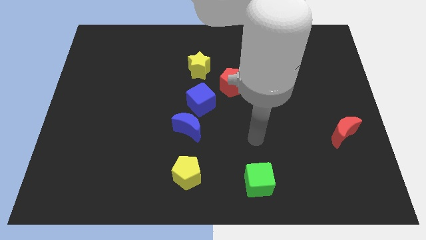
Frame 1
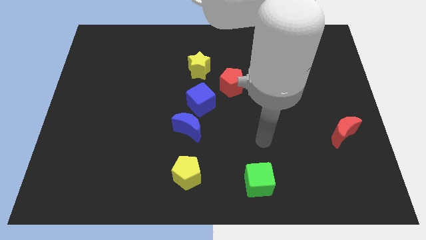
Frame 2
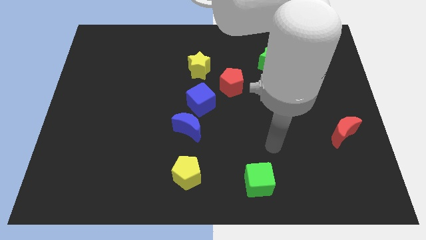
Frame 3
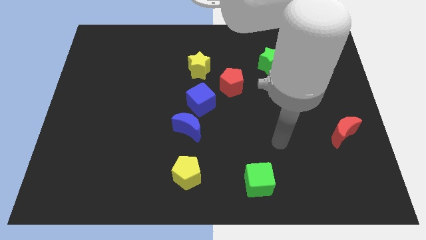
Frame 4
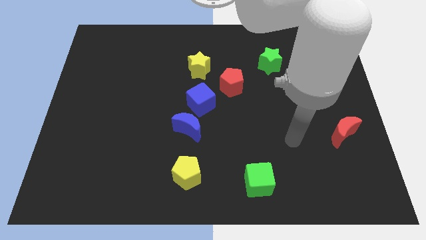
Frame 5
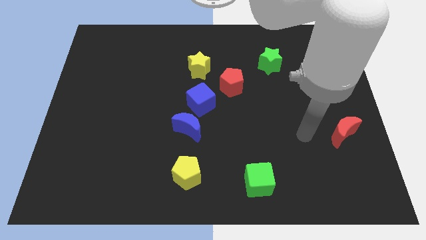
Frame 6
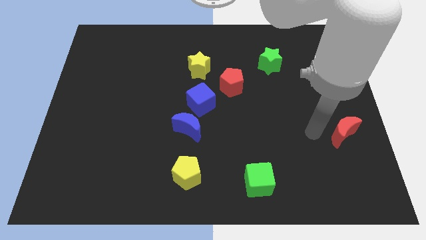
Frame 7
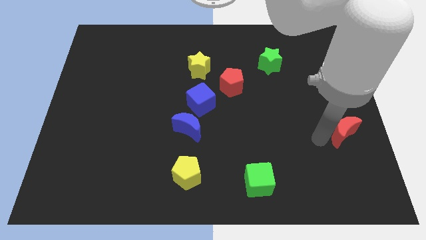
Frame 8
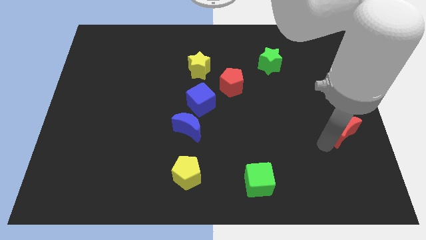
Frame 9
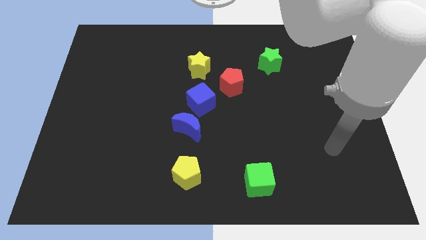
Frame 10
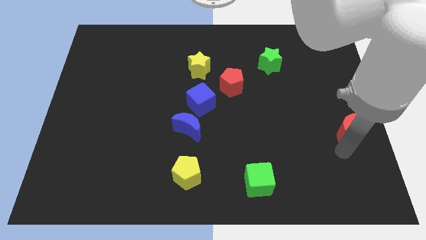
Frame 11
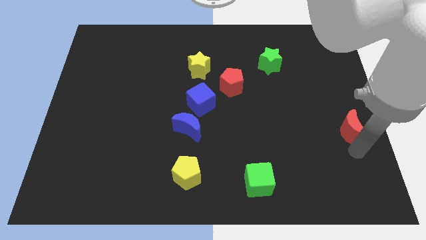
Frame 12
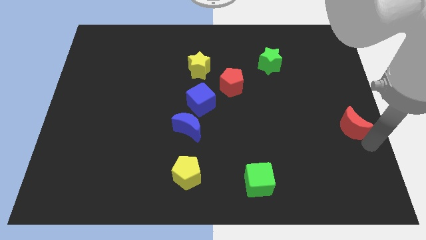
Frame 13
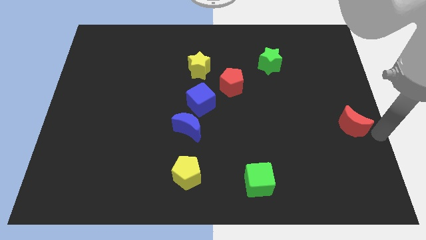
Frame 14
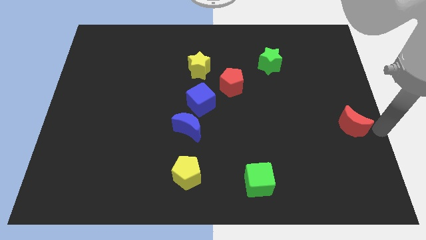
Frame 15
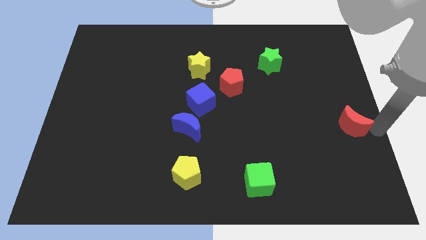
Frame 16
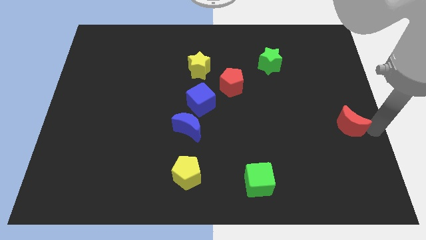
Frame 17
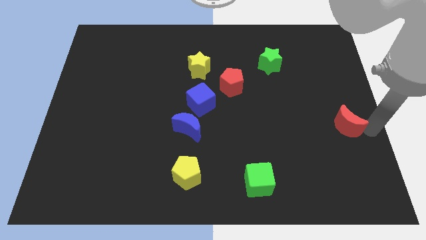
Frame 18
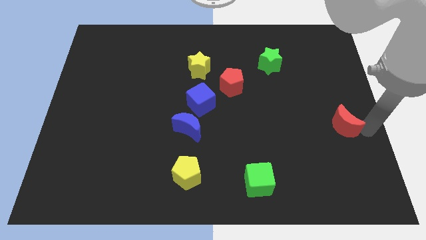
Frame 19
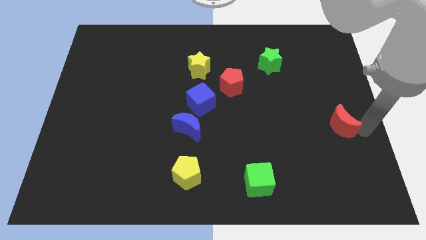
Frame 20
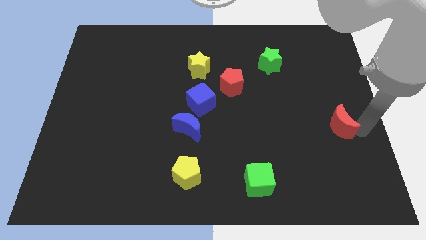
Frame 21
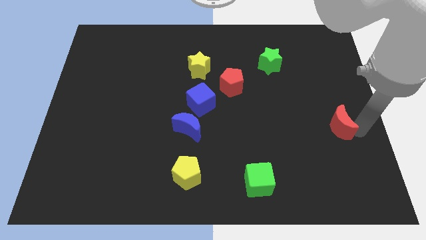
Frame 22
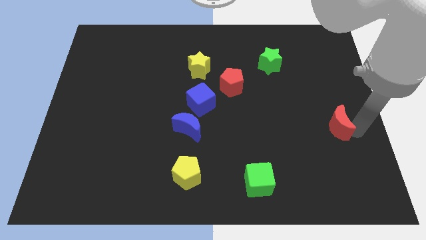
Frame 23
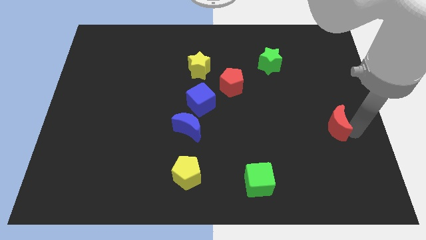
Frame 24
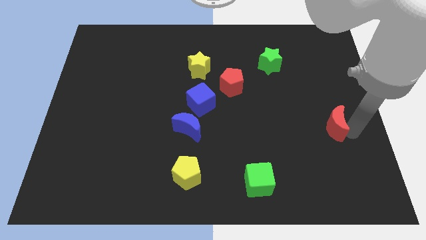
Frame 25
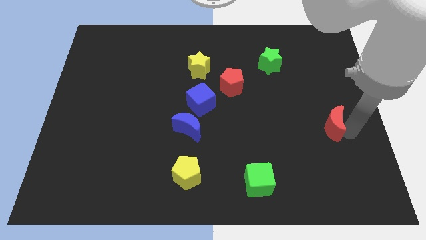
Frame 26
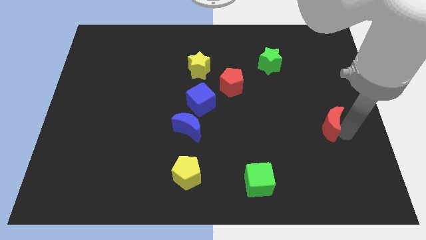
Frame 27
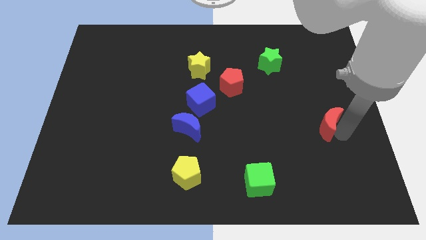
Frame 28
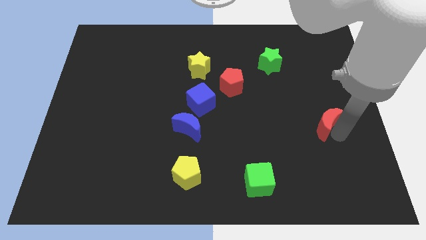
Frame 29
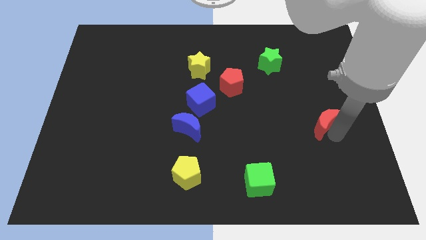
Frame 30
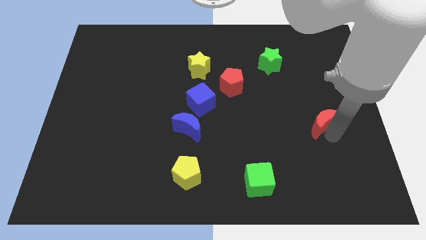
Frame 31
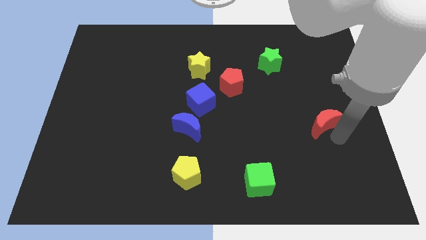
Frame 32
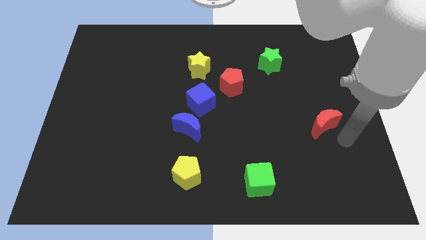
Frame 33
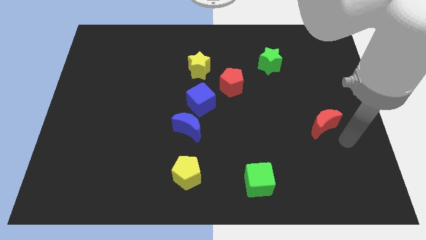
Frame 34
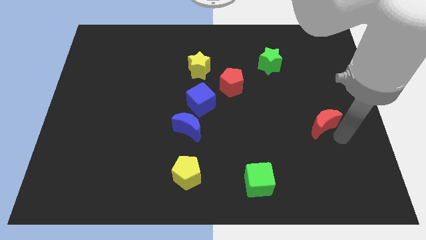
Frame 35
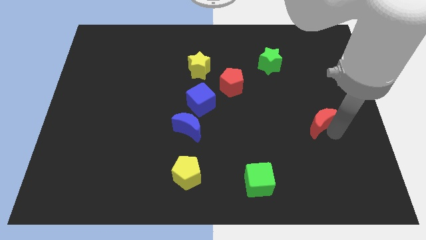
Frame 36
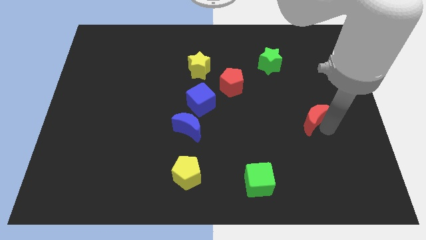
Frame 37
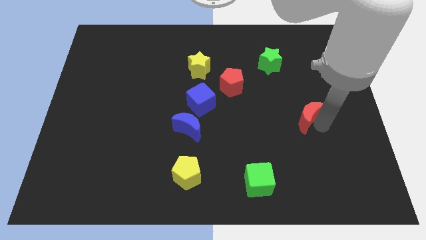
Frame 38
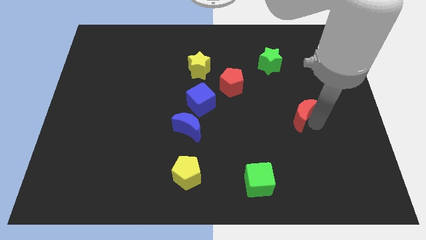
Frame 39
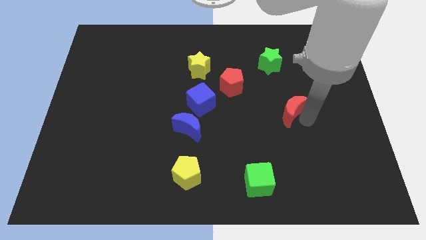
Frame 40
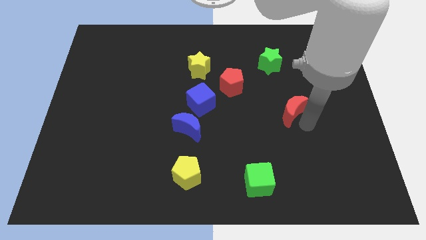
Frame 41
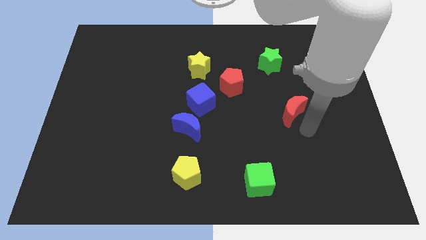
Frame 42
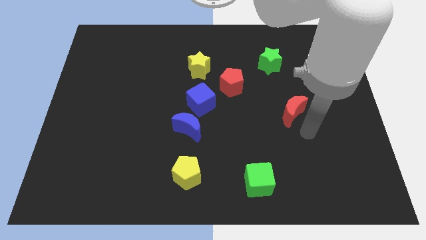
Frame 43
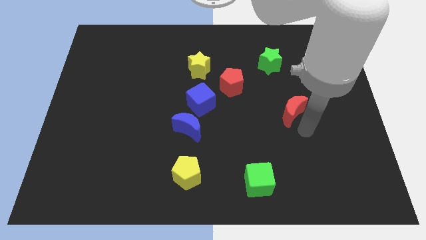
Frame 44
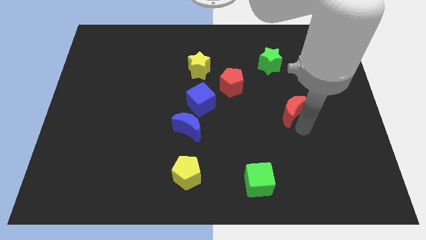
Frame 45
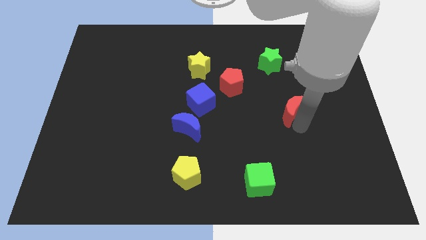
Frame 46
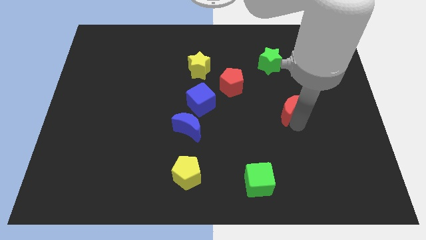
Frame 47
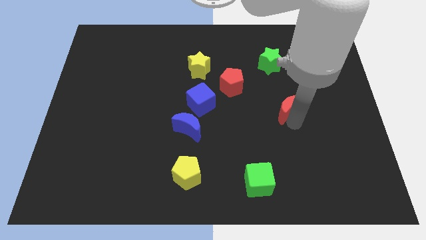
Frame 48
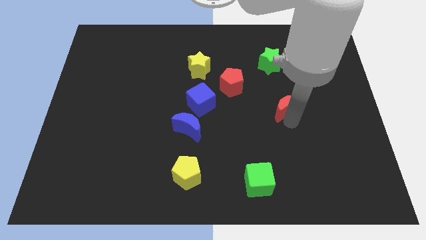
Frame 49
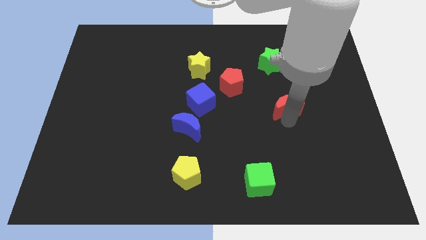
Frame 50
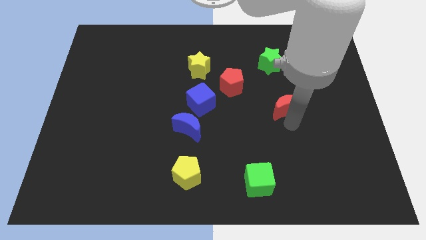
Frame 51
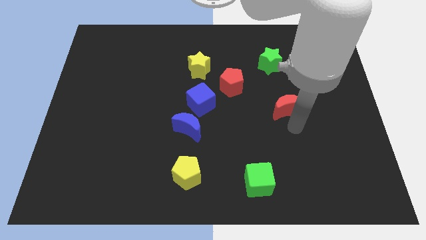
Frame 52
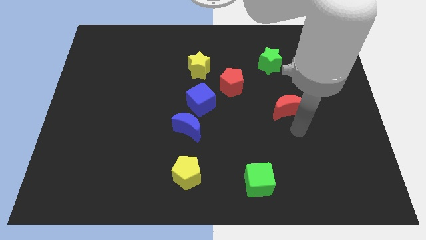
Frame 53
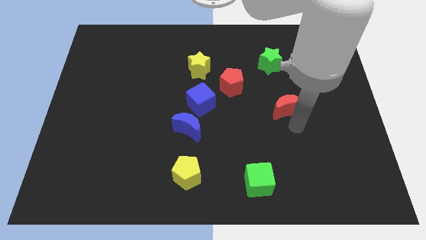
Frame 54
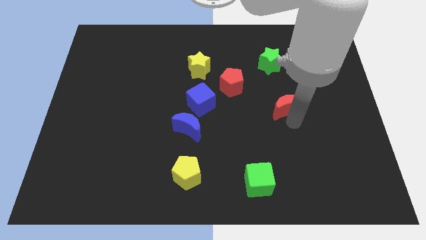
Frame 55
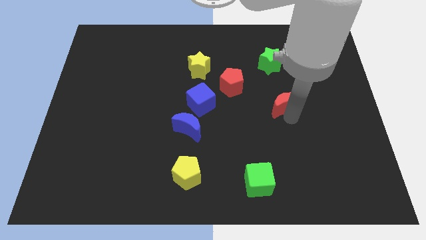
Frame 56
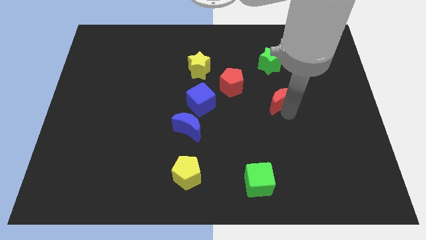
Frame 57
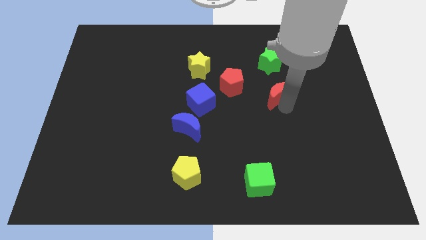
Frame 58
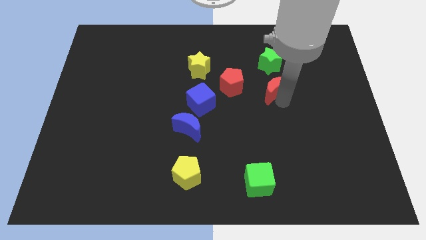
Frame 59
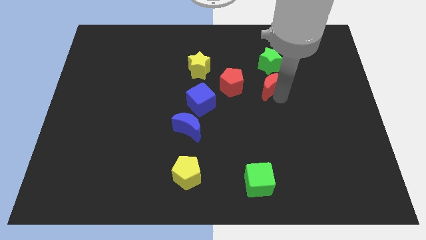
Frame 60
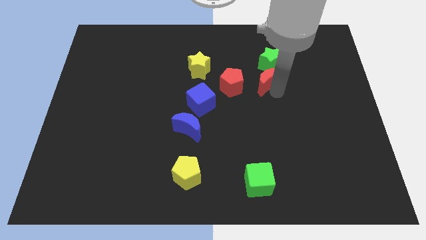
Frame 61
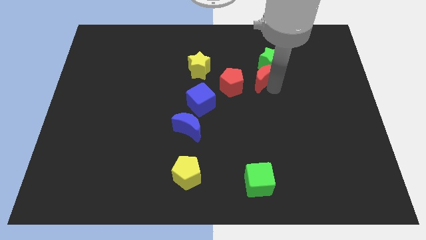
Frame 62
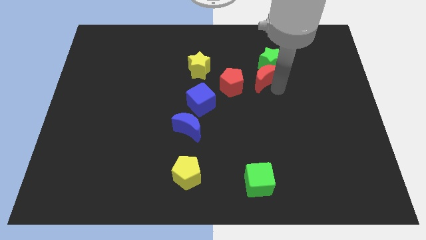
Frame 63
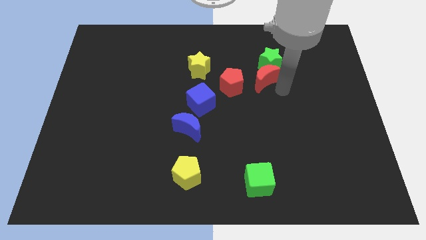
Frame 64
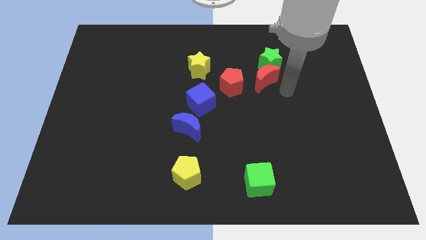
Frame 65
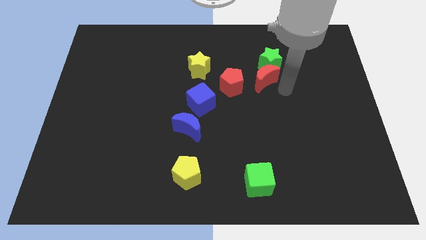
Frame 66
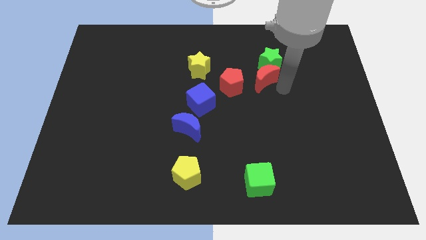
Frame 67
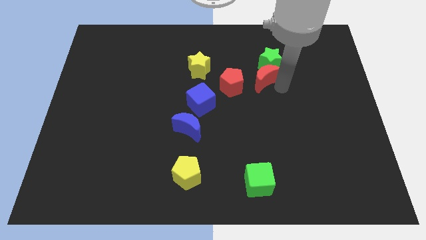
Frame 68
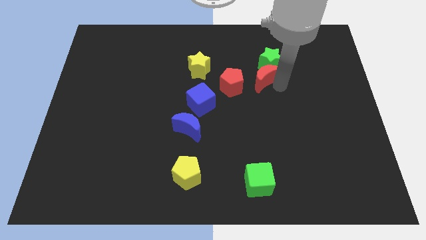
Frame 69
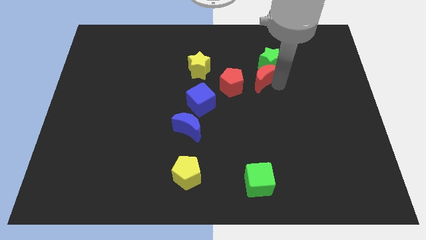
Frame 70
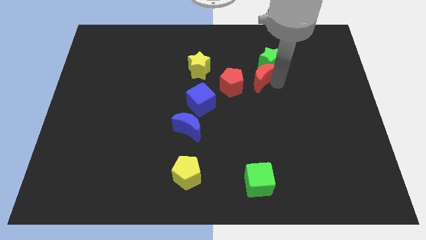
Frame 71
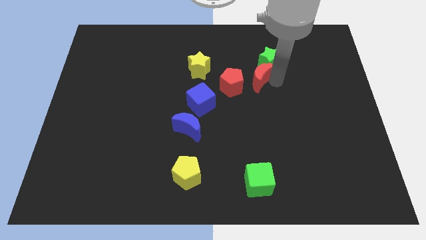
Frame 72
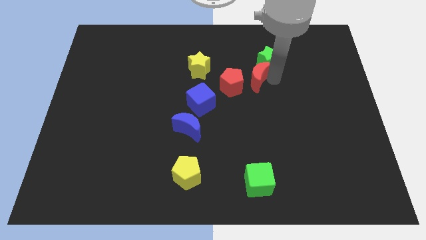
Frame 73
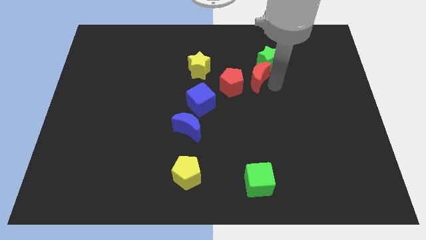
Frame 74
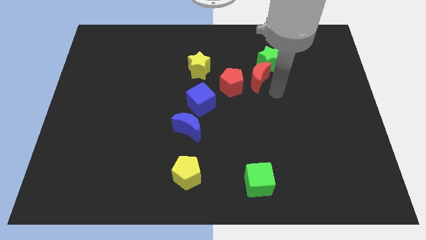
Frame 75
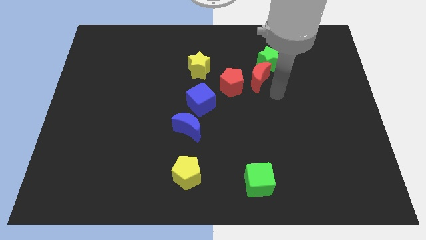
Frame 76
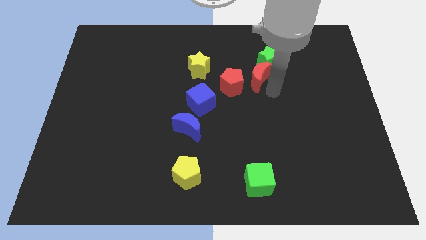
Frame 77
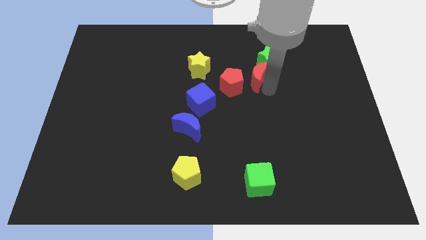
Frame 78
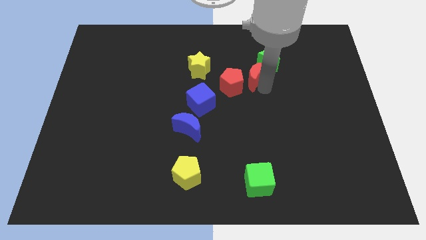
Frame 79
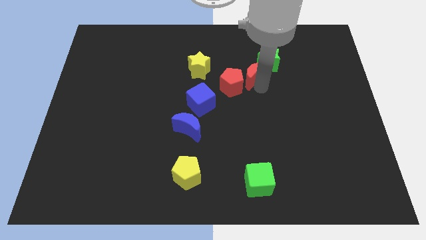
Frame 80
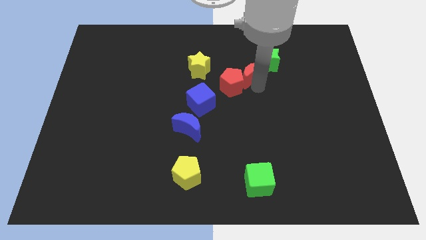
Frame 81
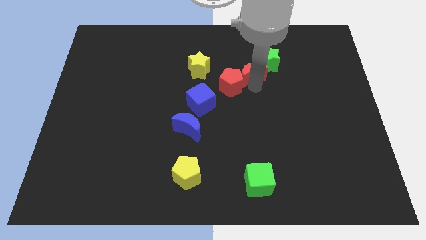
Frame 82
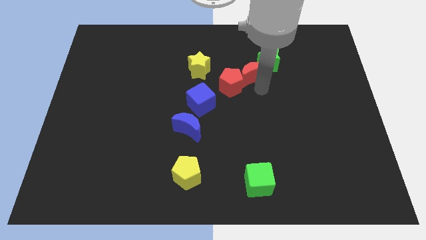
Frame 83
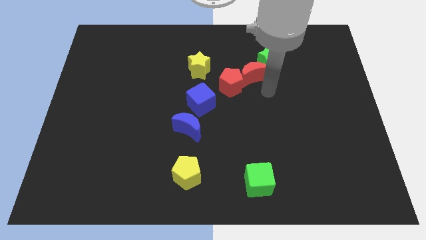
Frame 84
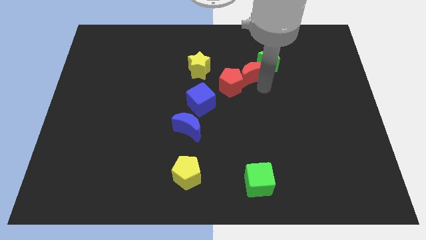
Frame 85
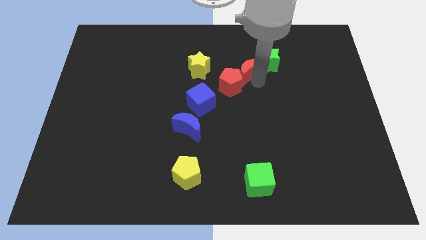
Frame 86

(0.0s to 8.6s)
move the red moon to the top of the red pentagon
